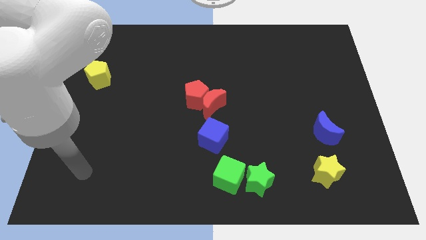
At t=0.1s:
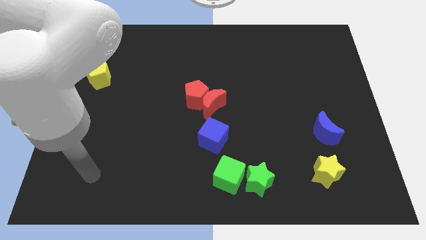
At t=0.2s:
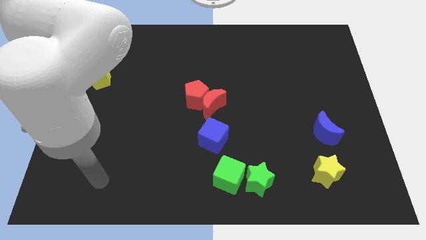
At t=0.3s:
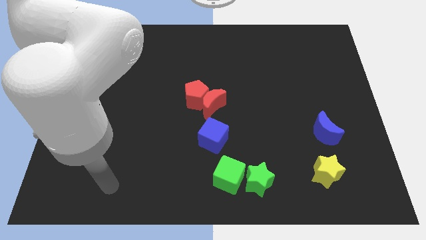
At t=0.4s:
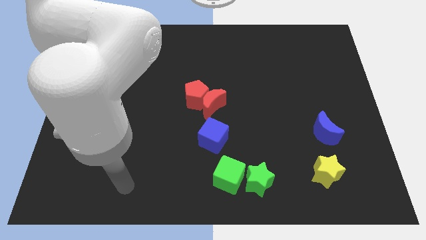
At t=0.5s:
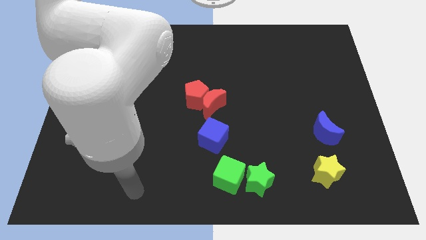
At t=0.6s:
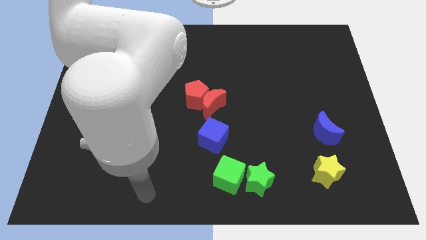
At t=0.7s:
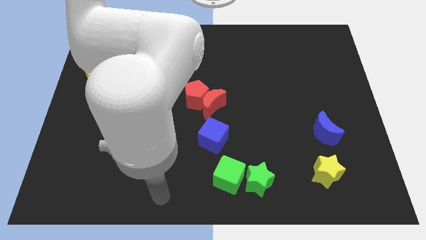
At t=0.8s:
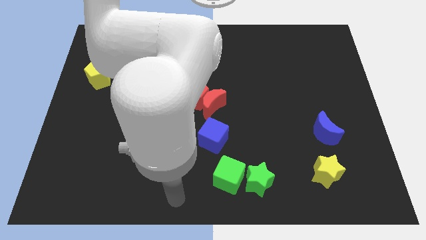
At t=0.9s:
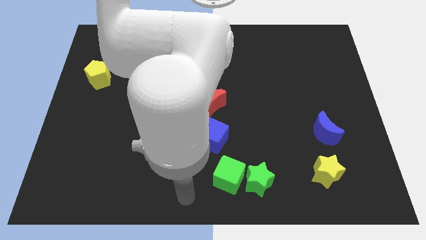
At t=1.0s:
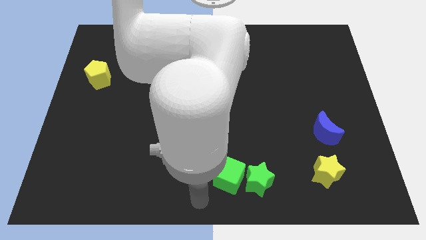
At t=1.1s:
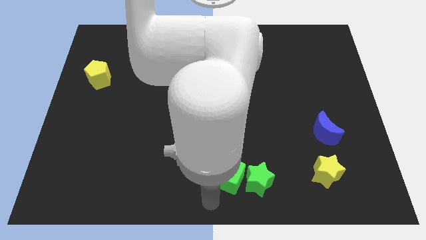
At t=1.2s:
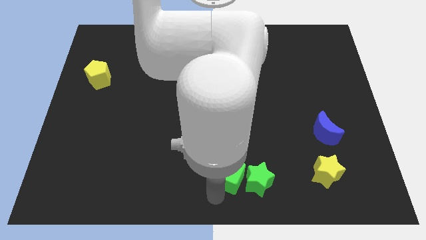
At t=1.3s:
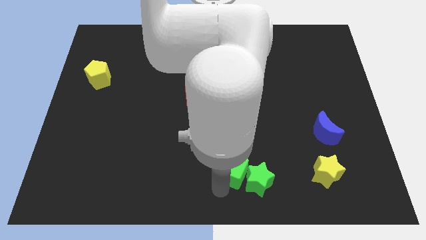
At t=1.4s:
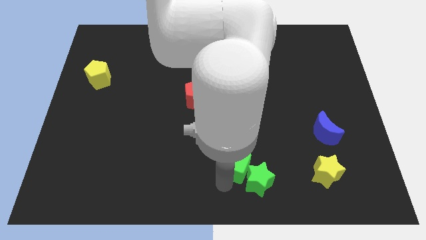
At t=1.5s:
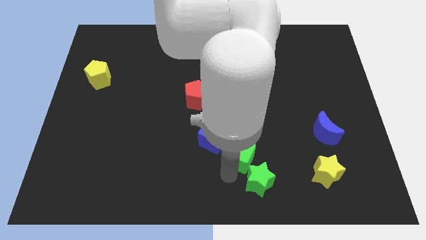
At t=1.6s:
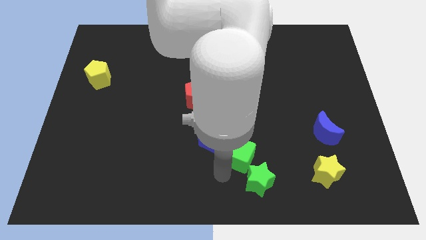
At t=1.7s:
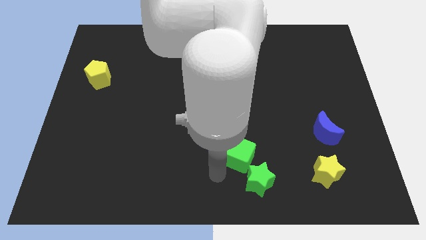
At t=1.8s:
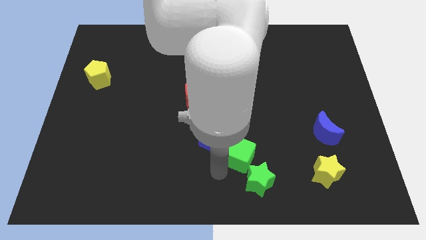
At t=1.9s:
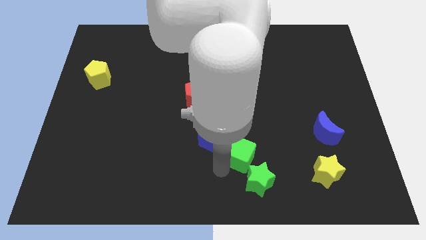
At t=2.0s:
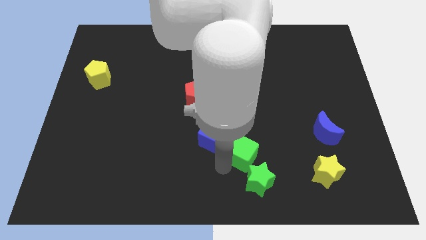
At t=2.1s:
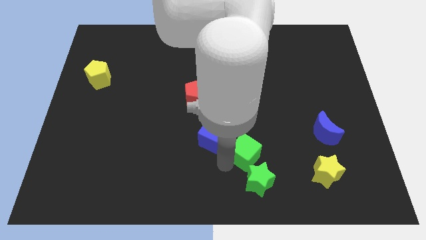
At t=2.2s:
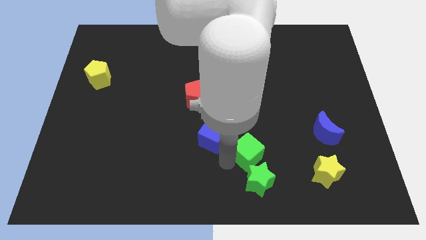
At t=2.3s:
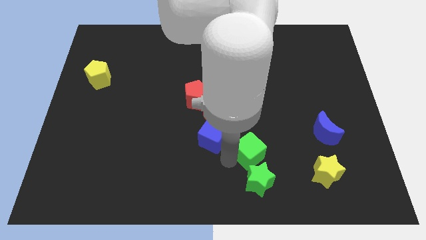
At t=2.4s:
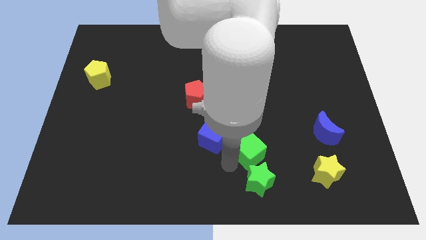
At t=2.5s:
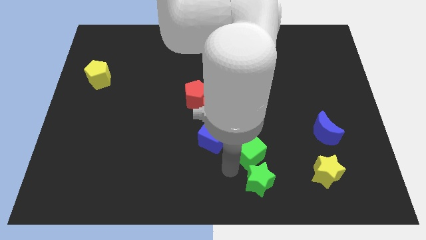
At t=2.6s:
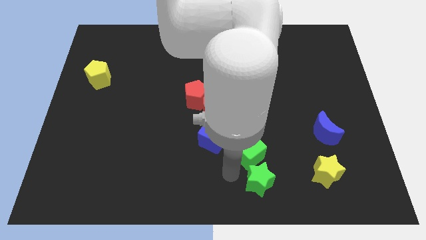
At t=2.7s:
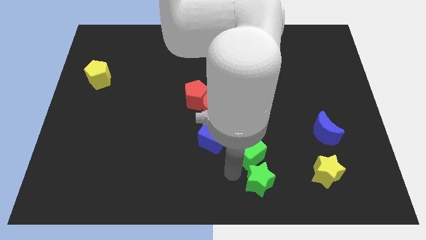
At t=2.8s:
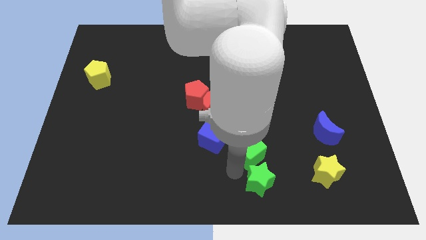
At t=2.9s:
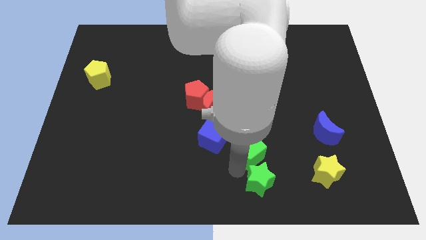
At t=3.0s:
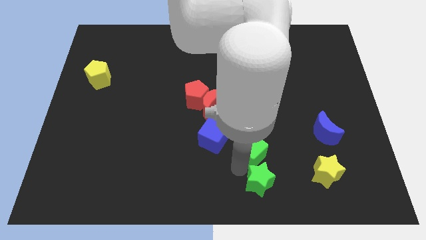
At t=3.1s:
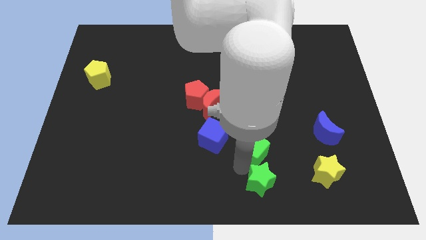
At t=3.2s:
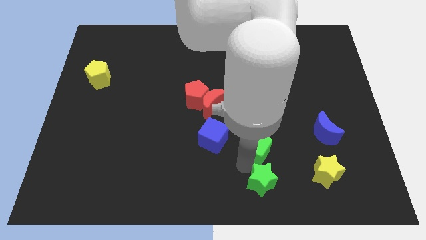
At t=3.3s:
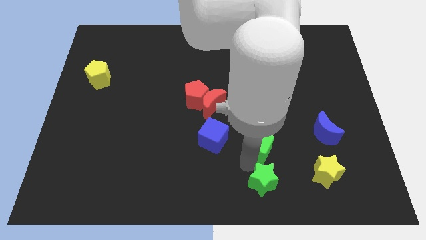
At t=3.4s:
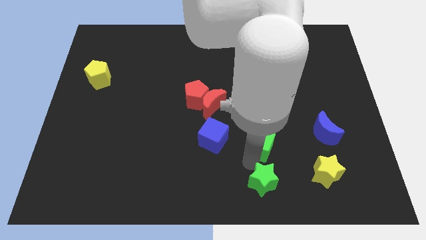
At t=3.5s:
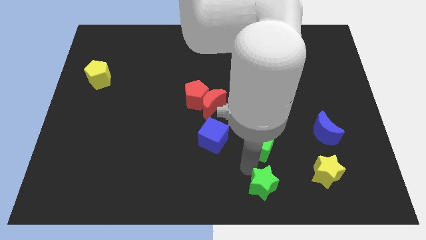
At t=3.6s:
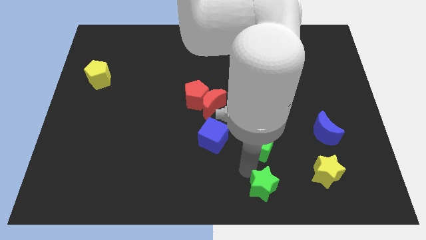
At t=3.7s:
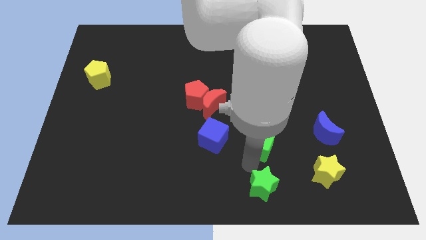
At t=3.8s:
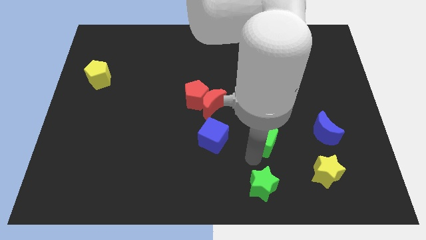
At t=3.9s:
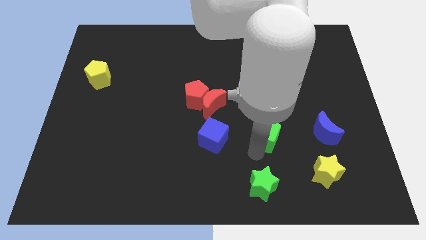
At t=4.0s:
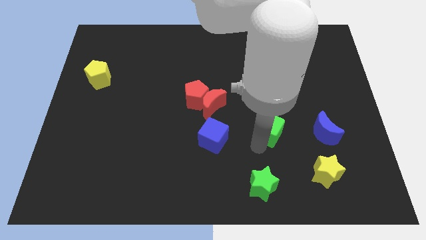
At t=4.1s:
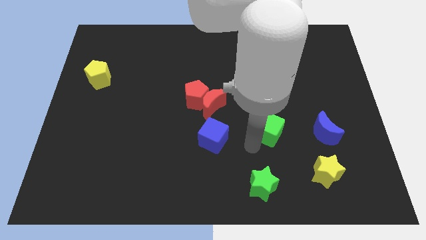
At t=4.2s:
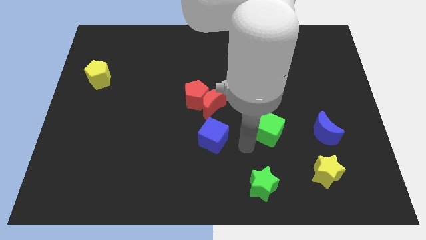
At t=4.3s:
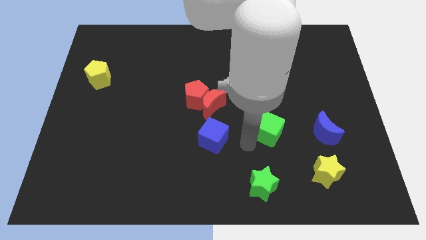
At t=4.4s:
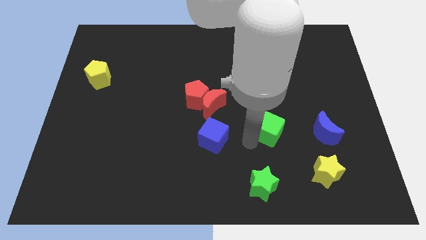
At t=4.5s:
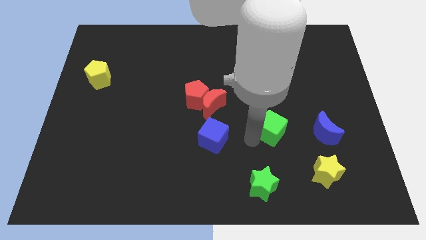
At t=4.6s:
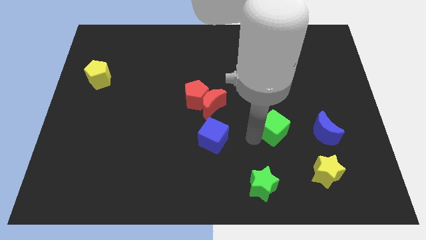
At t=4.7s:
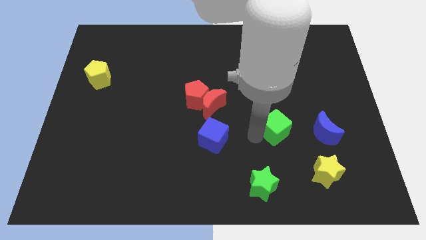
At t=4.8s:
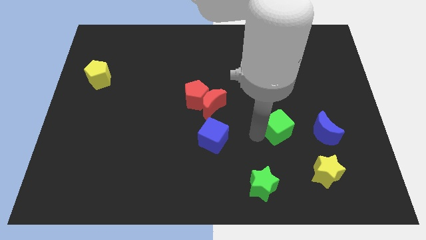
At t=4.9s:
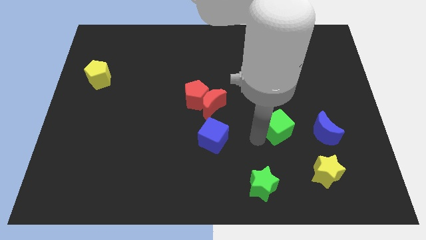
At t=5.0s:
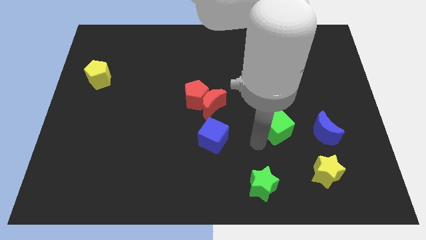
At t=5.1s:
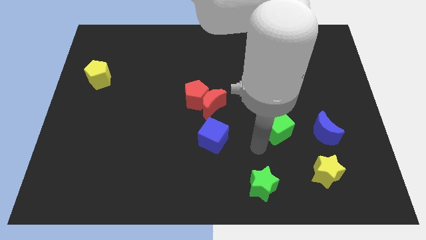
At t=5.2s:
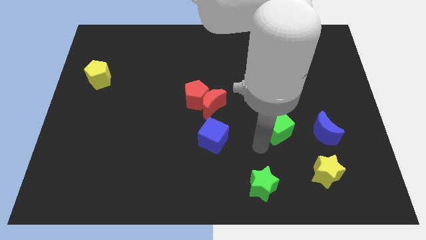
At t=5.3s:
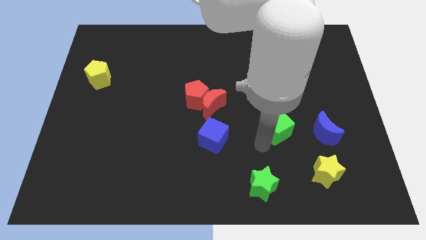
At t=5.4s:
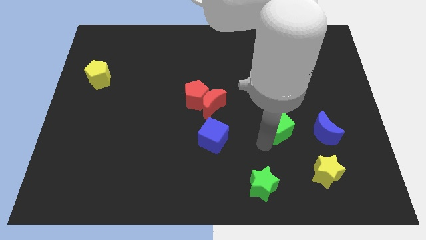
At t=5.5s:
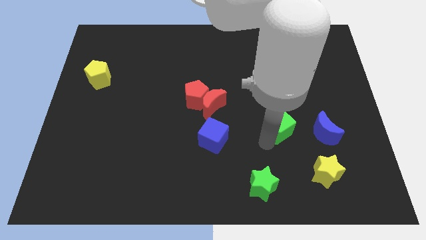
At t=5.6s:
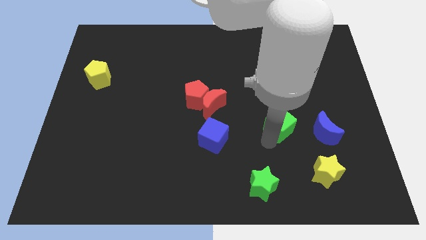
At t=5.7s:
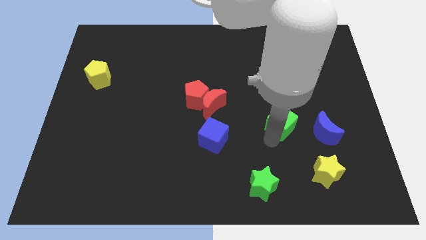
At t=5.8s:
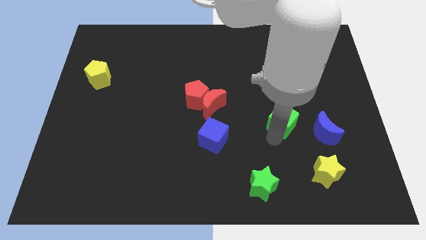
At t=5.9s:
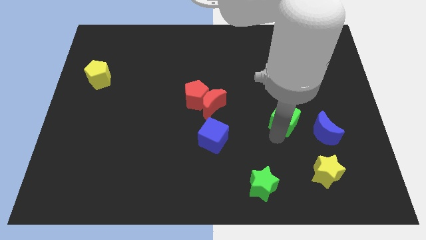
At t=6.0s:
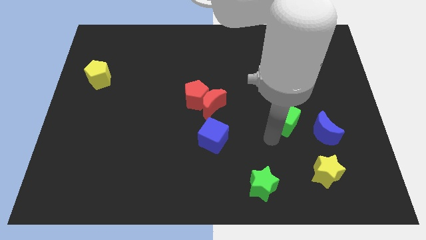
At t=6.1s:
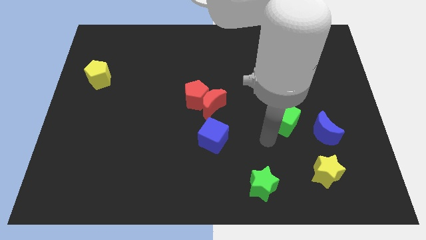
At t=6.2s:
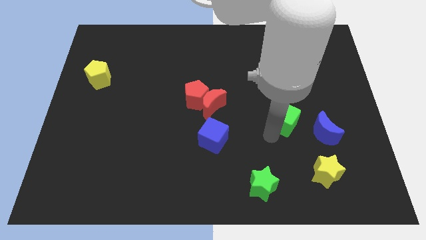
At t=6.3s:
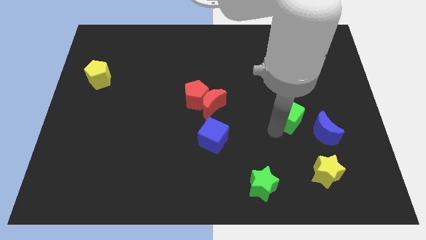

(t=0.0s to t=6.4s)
push the green cube upwards and then right

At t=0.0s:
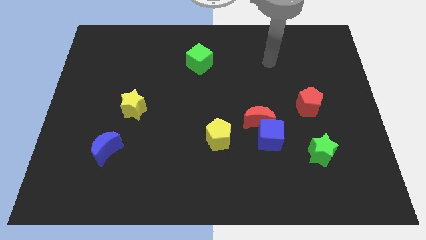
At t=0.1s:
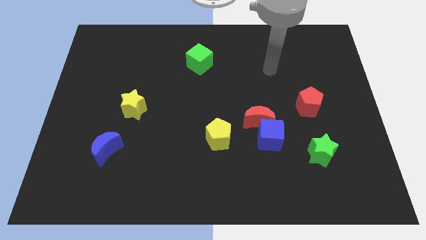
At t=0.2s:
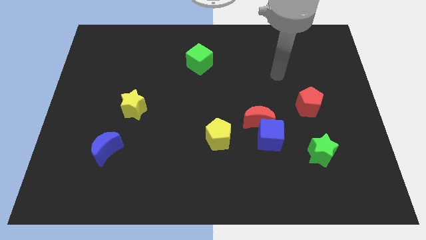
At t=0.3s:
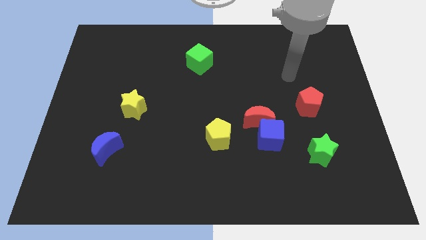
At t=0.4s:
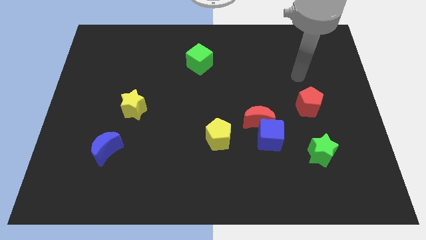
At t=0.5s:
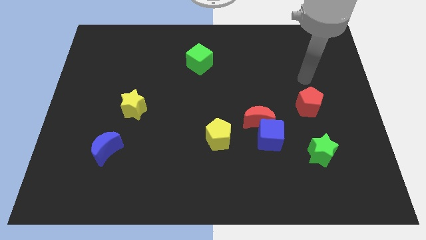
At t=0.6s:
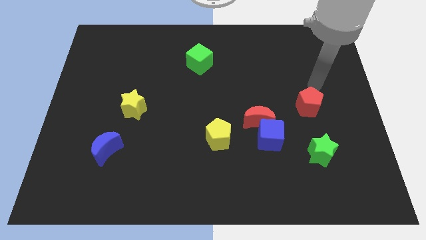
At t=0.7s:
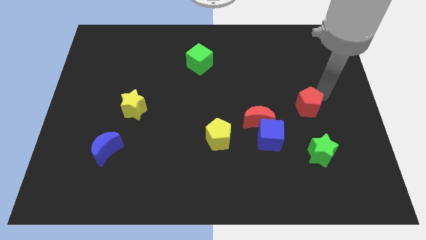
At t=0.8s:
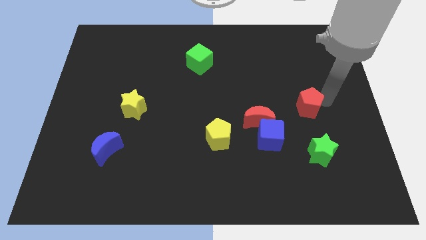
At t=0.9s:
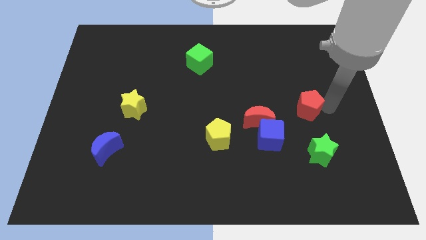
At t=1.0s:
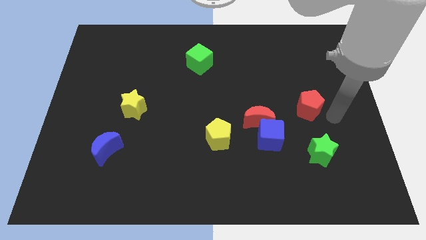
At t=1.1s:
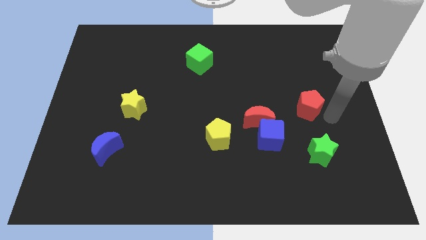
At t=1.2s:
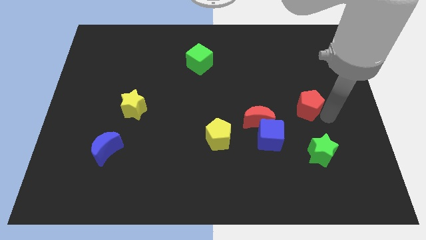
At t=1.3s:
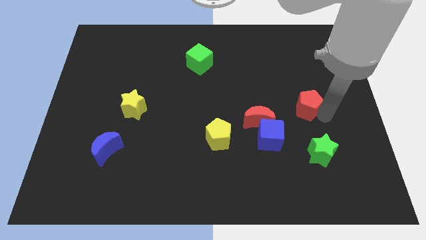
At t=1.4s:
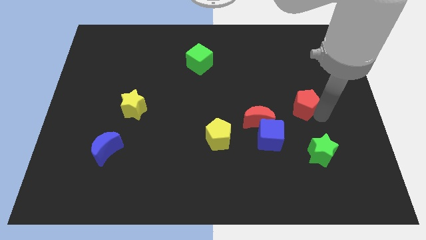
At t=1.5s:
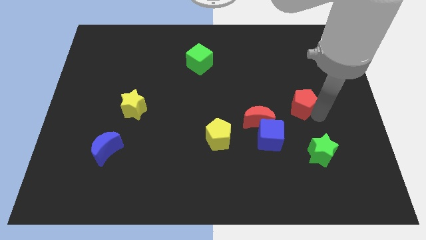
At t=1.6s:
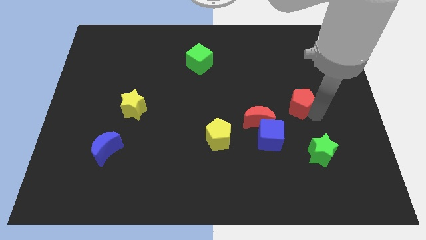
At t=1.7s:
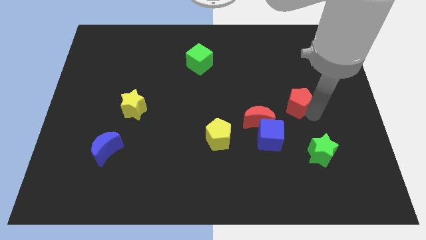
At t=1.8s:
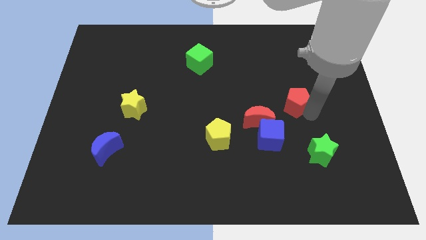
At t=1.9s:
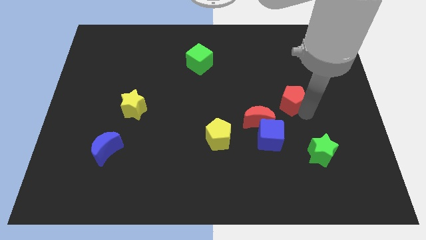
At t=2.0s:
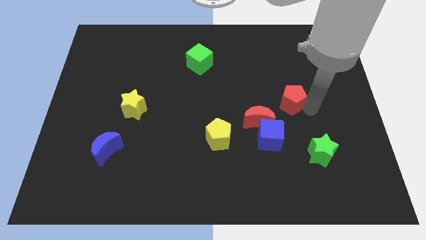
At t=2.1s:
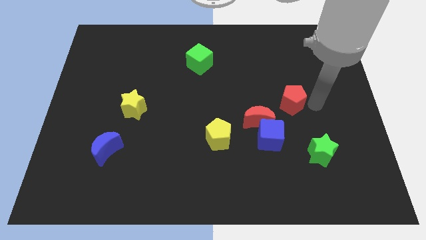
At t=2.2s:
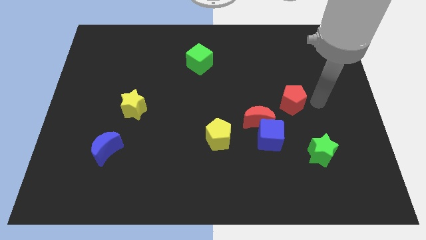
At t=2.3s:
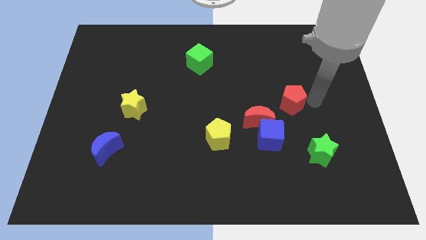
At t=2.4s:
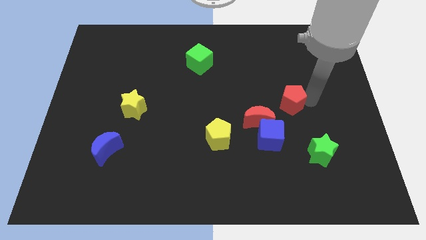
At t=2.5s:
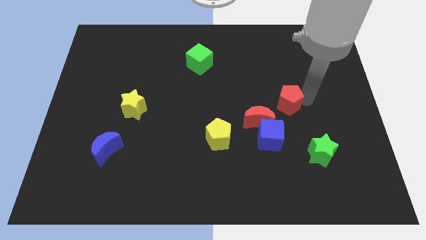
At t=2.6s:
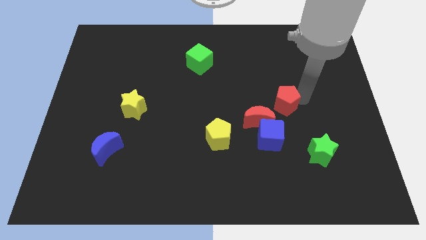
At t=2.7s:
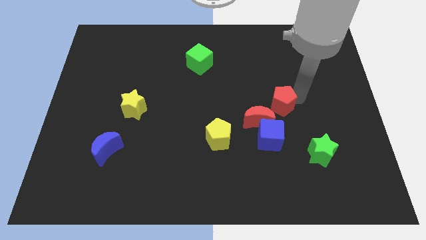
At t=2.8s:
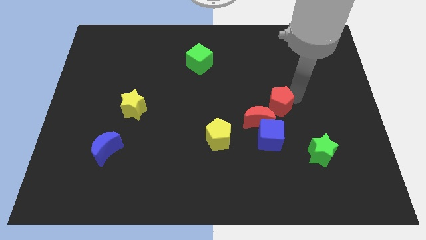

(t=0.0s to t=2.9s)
push the red pentagon a little to the left
